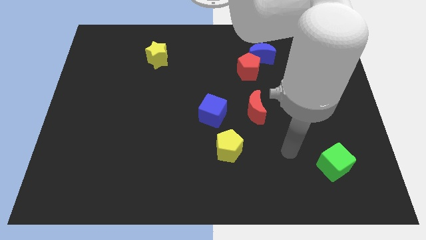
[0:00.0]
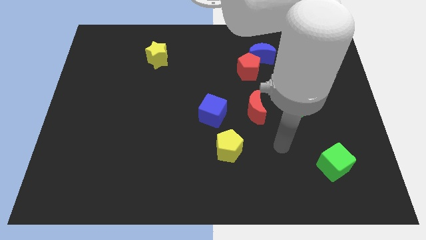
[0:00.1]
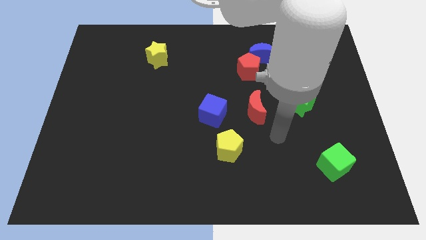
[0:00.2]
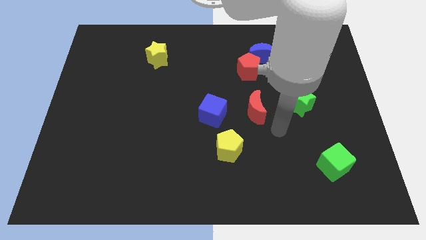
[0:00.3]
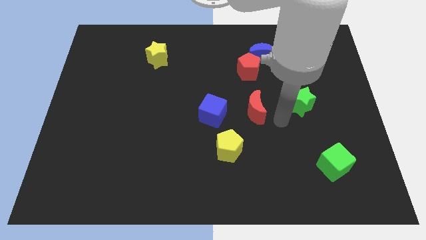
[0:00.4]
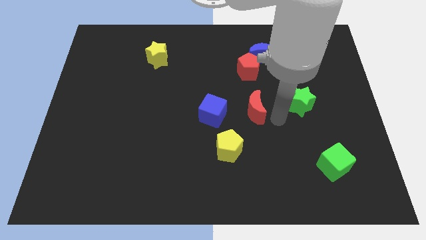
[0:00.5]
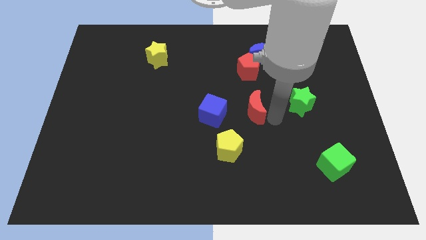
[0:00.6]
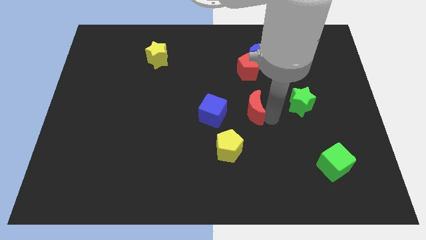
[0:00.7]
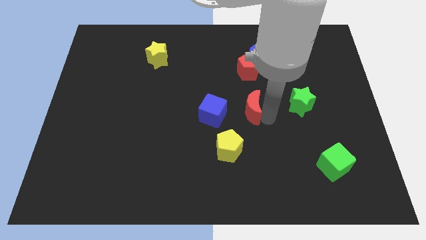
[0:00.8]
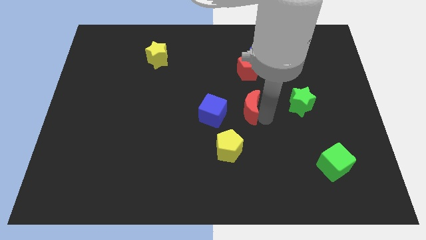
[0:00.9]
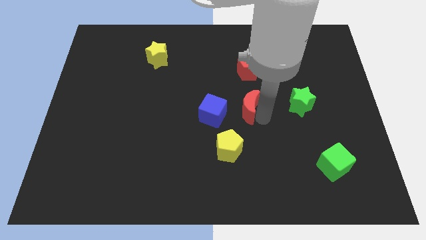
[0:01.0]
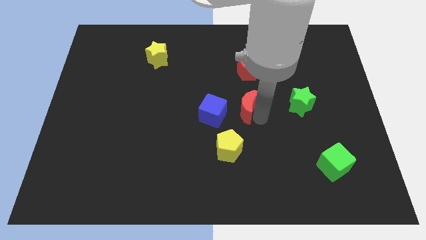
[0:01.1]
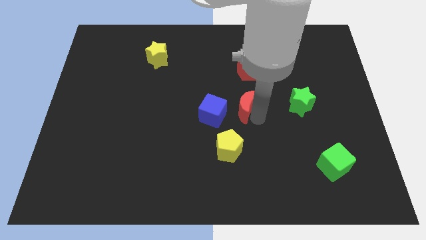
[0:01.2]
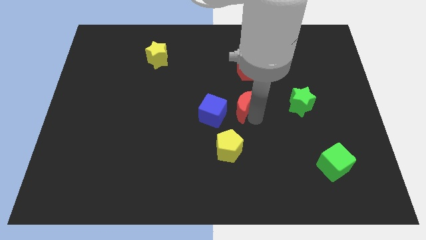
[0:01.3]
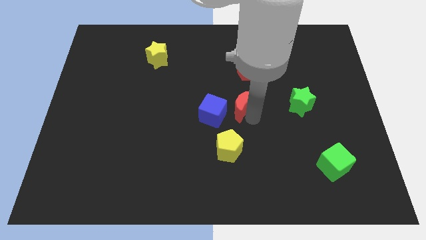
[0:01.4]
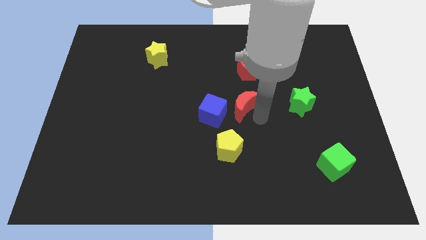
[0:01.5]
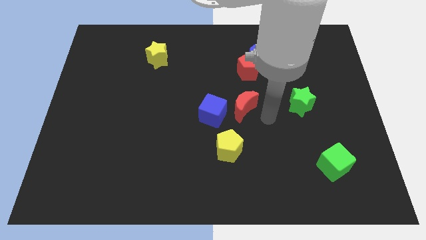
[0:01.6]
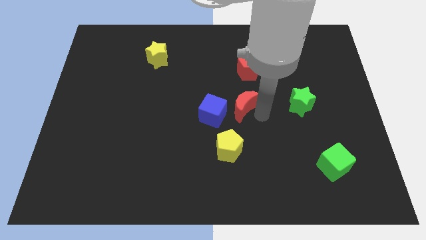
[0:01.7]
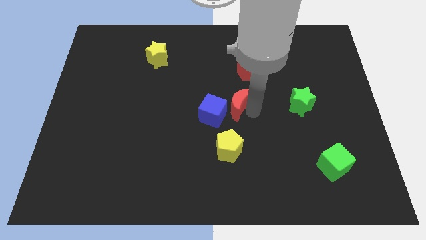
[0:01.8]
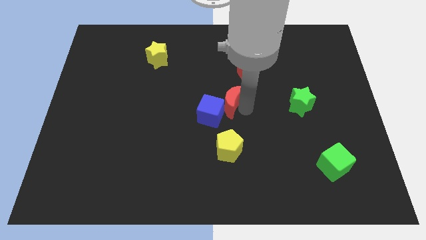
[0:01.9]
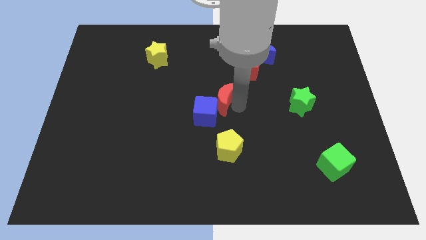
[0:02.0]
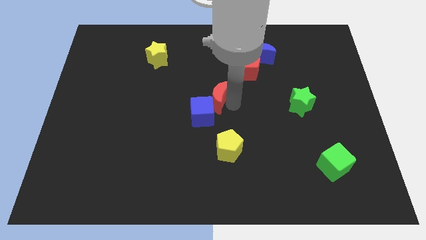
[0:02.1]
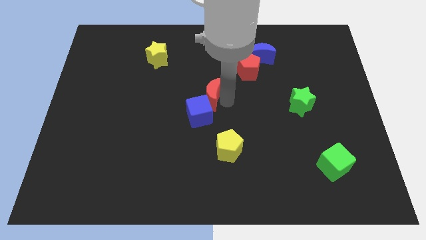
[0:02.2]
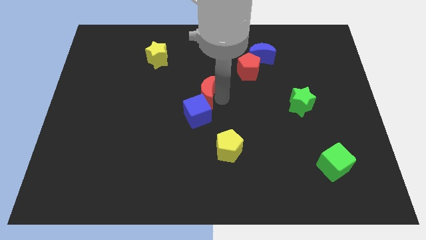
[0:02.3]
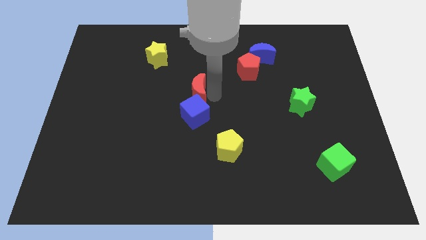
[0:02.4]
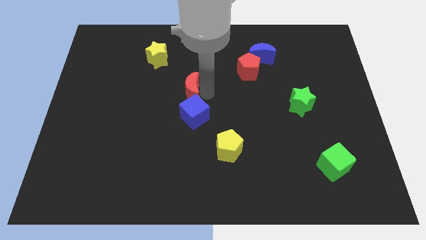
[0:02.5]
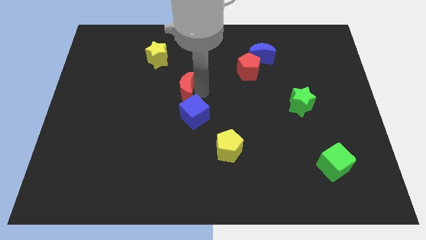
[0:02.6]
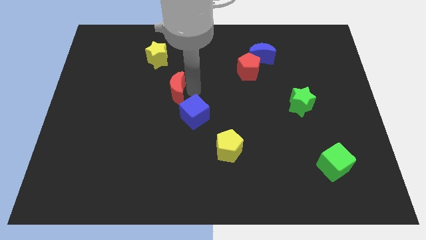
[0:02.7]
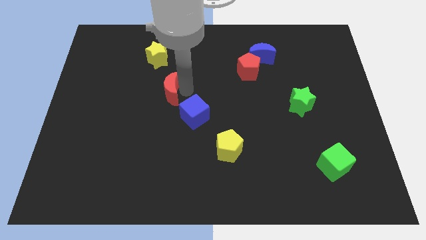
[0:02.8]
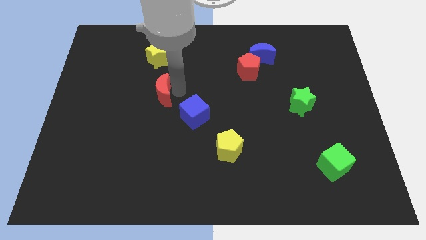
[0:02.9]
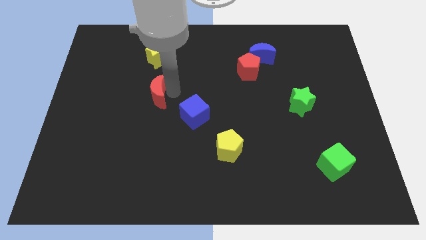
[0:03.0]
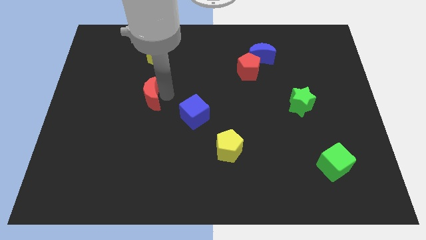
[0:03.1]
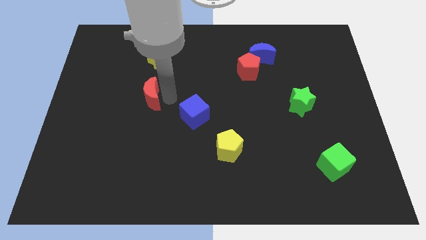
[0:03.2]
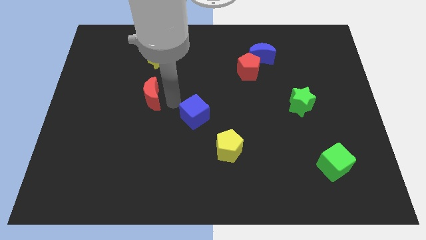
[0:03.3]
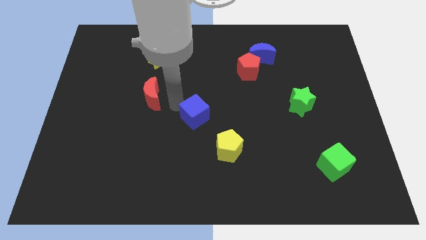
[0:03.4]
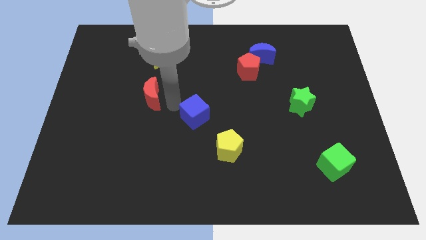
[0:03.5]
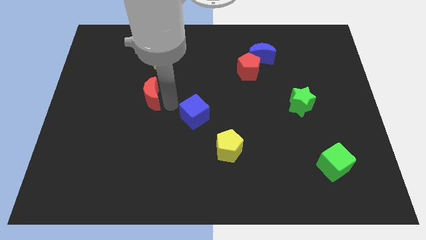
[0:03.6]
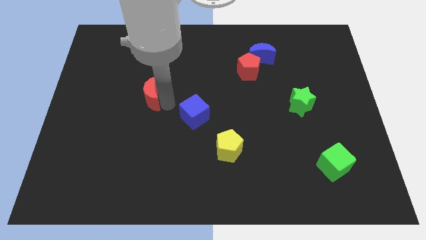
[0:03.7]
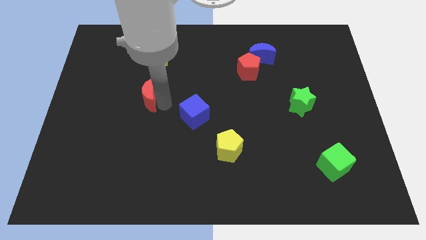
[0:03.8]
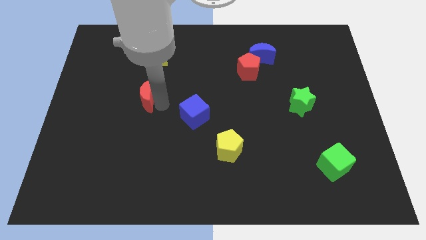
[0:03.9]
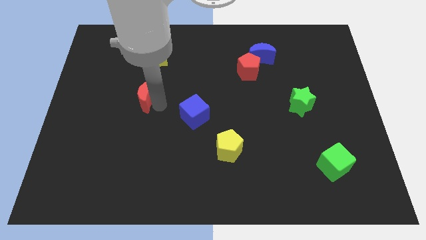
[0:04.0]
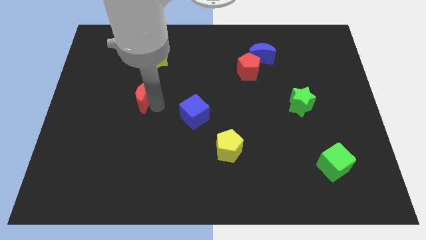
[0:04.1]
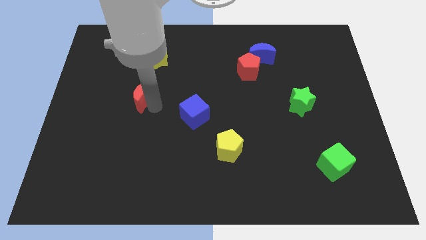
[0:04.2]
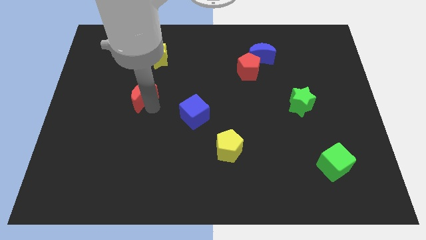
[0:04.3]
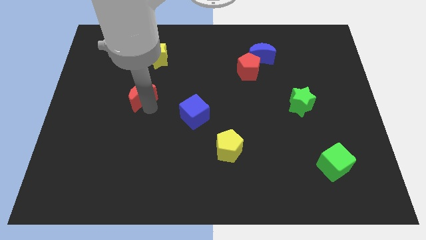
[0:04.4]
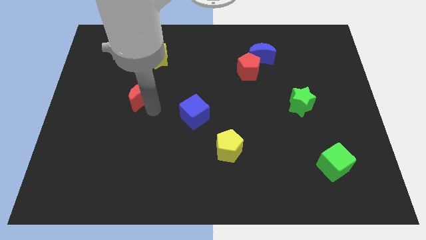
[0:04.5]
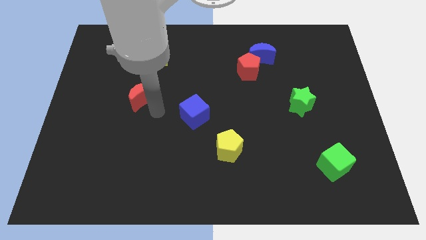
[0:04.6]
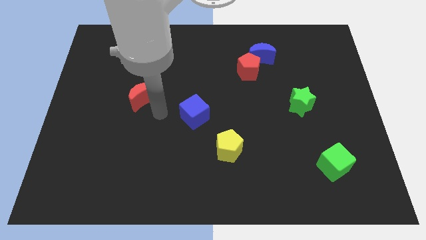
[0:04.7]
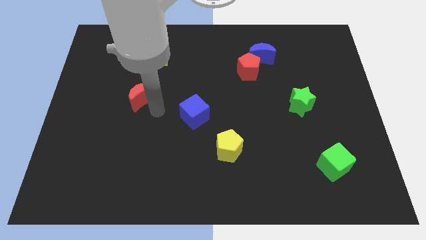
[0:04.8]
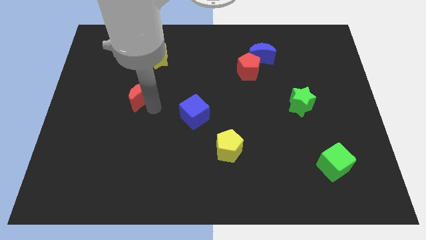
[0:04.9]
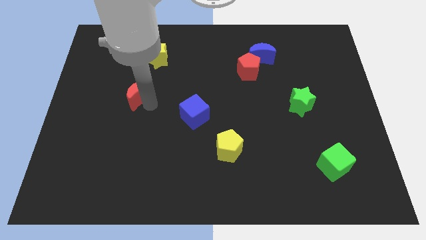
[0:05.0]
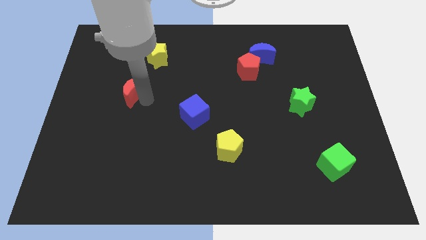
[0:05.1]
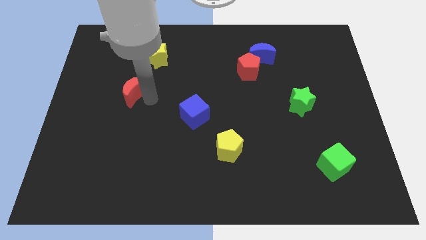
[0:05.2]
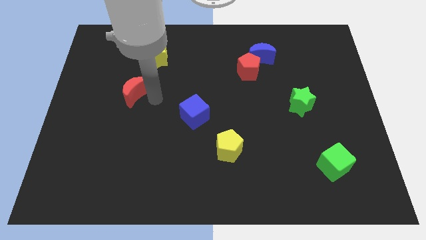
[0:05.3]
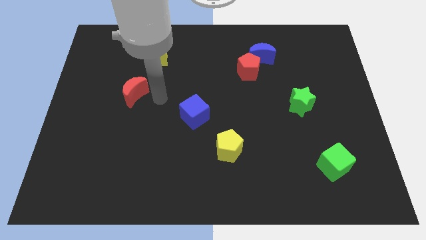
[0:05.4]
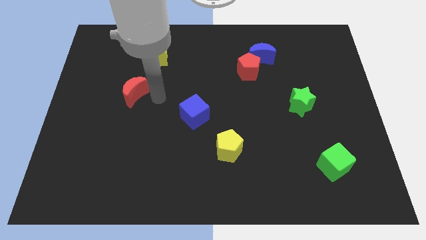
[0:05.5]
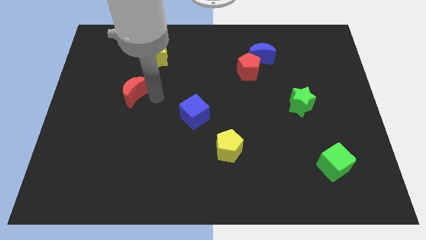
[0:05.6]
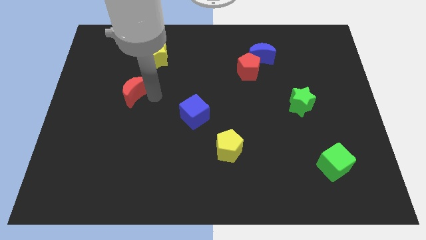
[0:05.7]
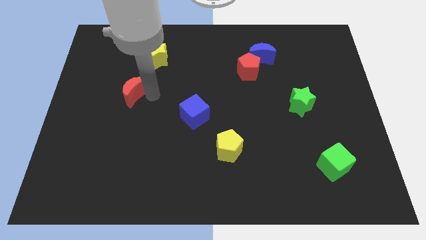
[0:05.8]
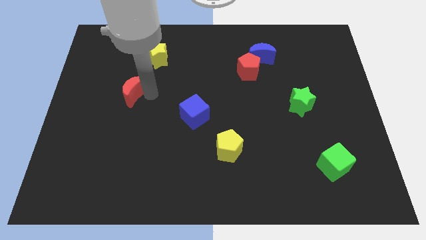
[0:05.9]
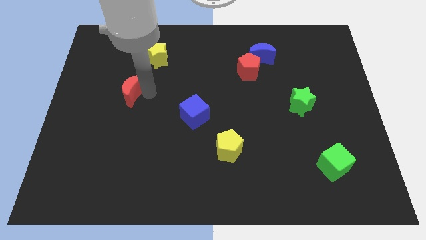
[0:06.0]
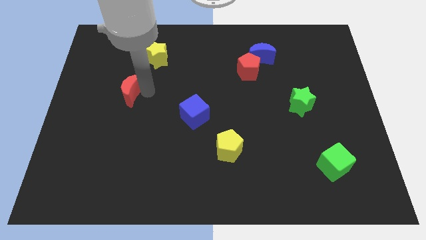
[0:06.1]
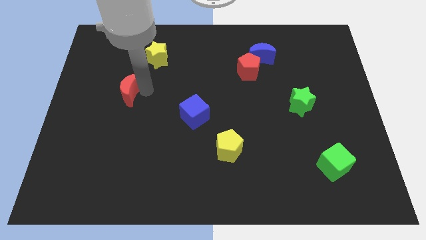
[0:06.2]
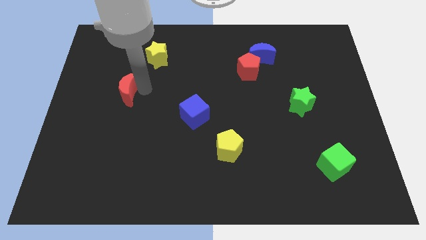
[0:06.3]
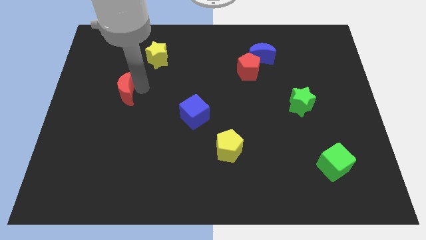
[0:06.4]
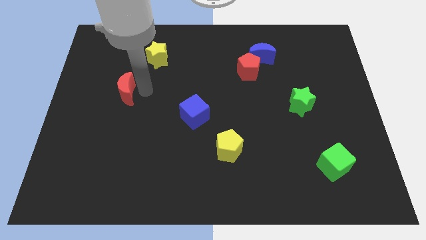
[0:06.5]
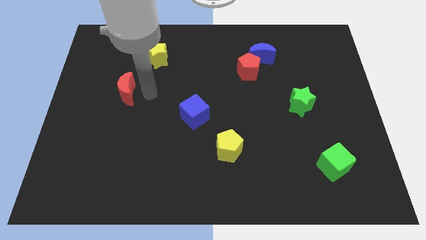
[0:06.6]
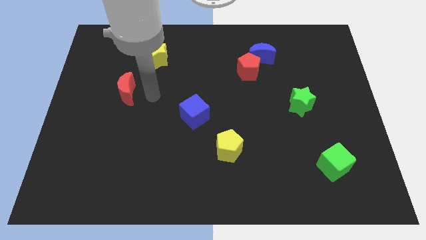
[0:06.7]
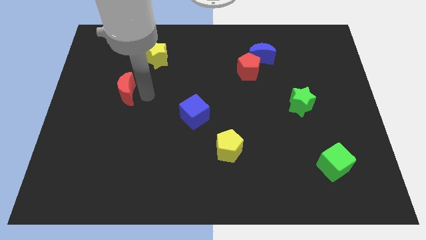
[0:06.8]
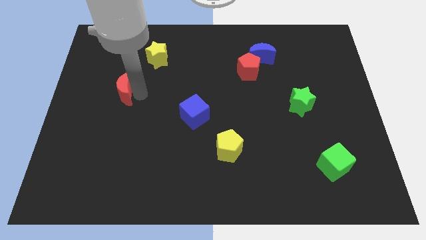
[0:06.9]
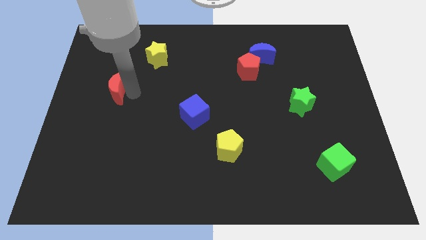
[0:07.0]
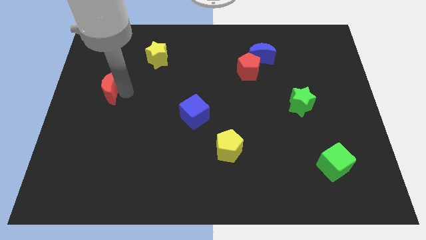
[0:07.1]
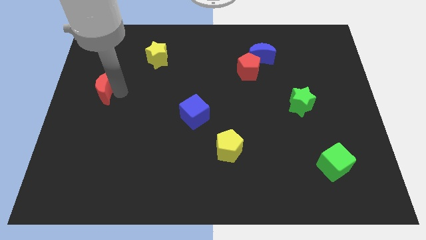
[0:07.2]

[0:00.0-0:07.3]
put the red moon to the center left
